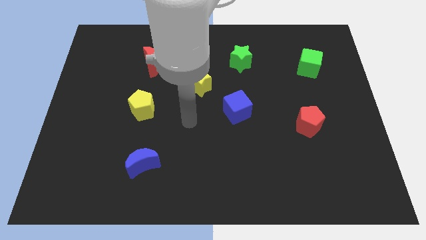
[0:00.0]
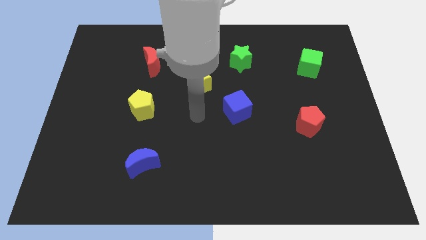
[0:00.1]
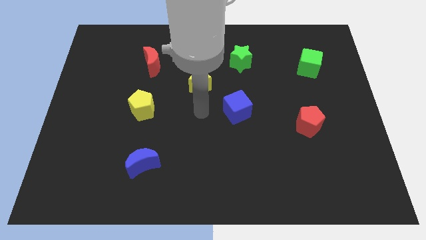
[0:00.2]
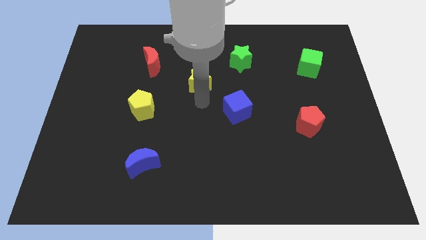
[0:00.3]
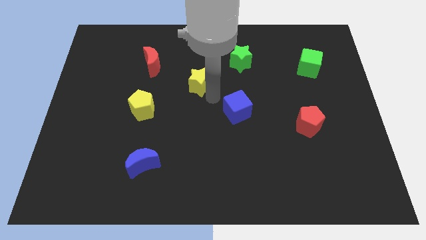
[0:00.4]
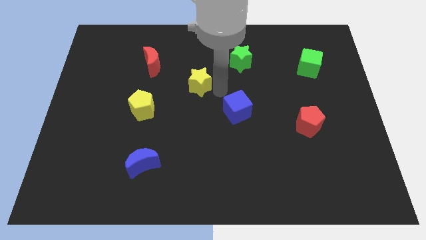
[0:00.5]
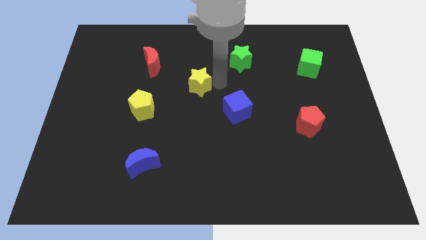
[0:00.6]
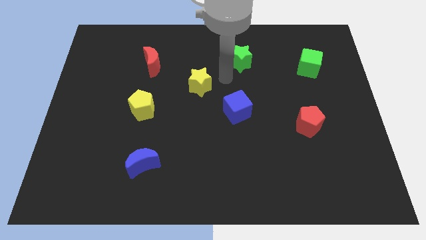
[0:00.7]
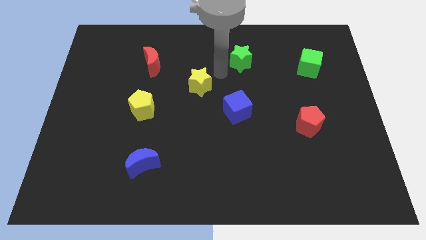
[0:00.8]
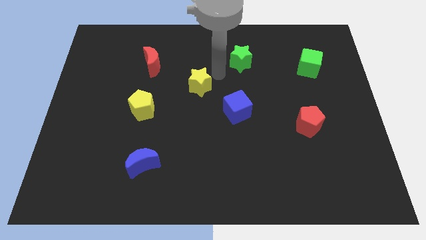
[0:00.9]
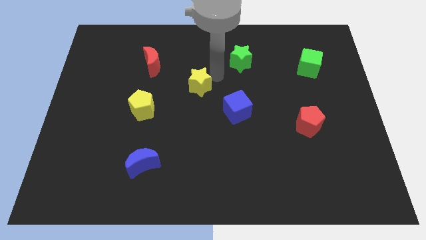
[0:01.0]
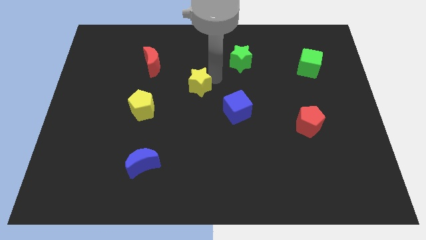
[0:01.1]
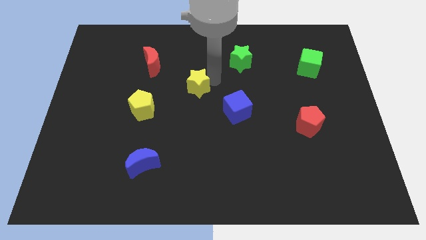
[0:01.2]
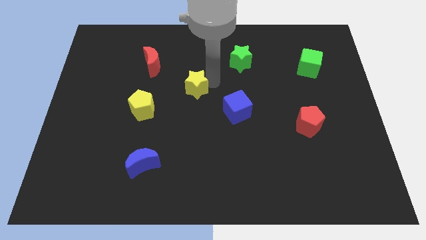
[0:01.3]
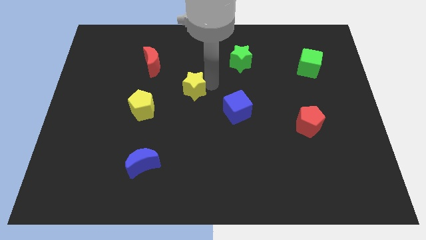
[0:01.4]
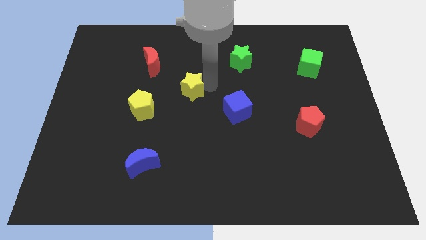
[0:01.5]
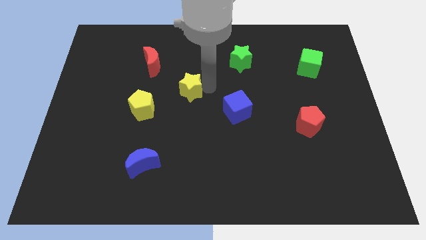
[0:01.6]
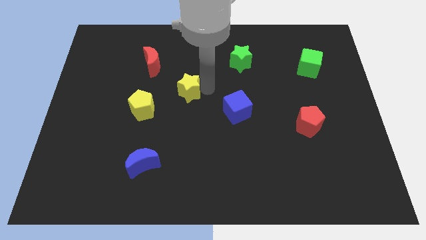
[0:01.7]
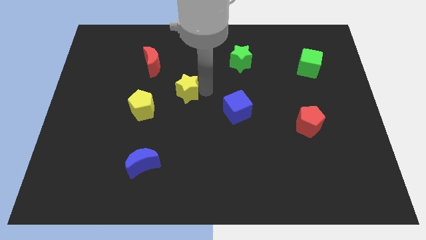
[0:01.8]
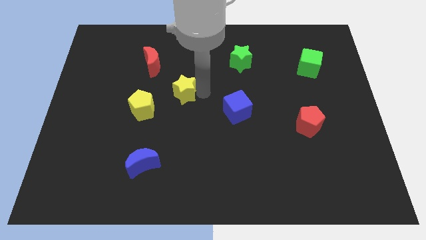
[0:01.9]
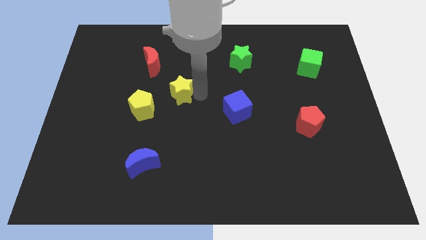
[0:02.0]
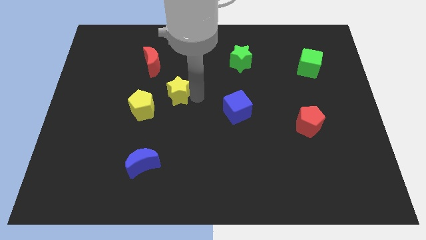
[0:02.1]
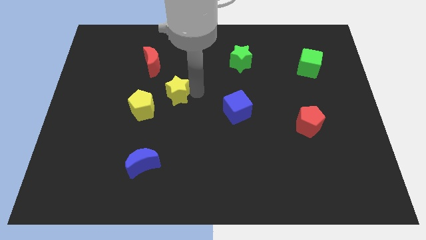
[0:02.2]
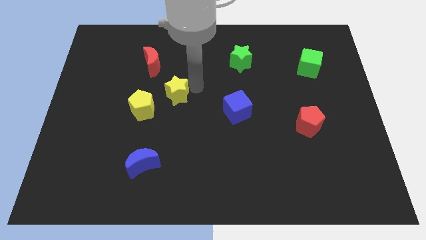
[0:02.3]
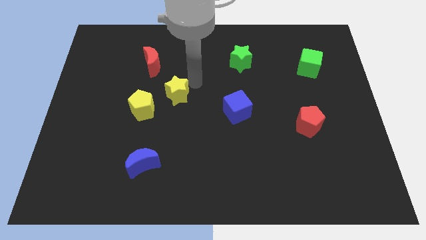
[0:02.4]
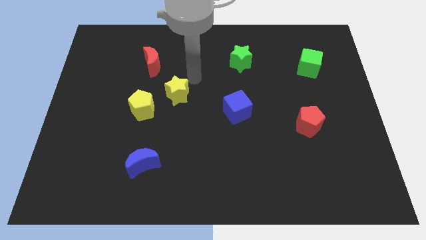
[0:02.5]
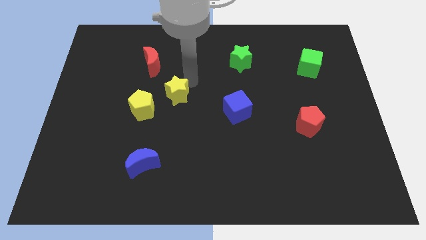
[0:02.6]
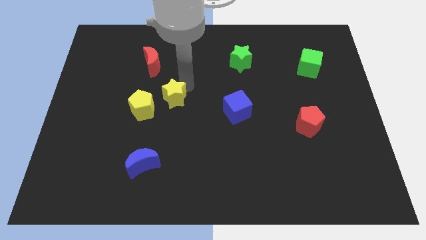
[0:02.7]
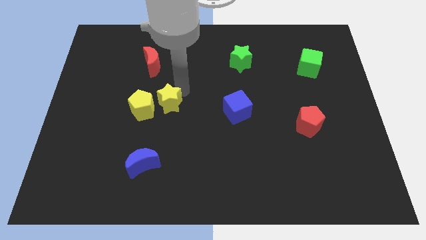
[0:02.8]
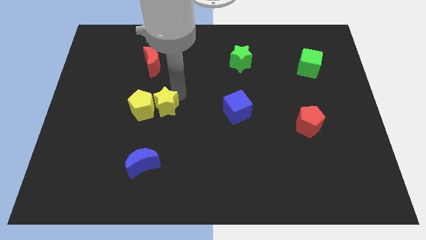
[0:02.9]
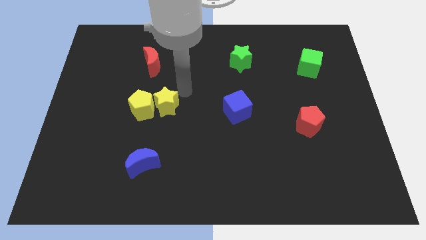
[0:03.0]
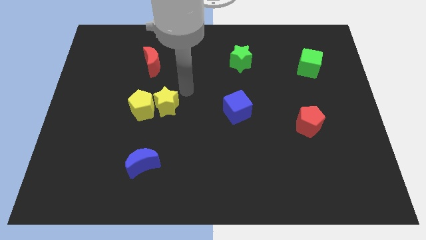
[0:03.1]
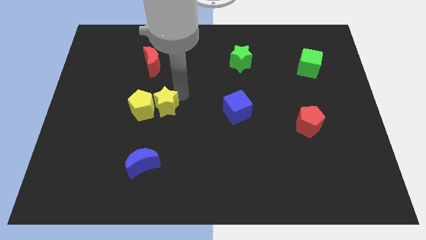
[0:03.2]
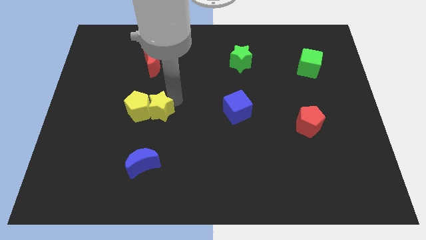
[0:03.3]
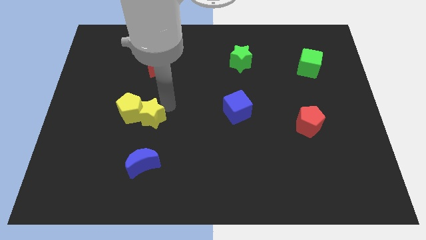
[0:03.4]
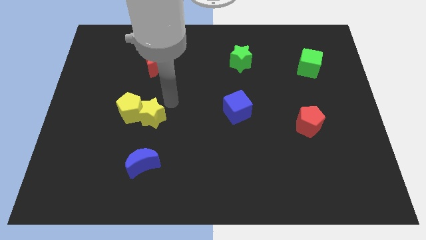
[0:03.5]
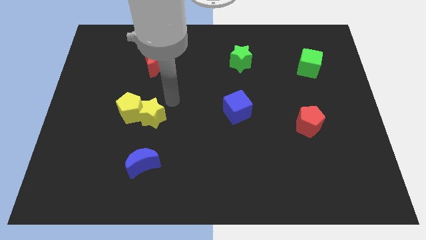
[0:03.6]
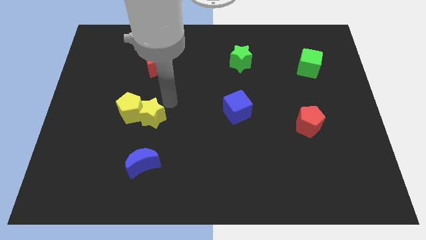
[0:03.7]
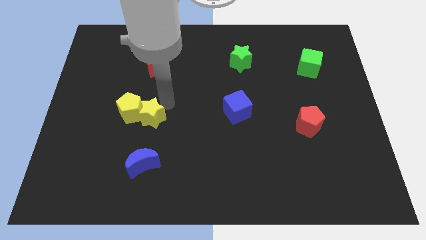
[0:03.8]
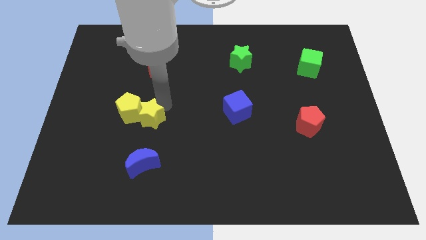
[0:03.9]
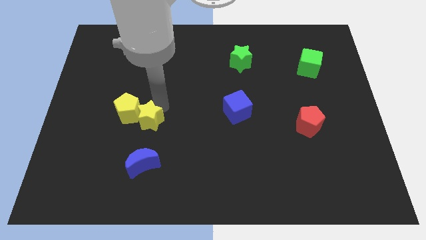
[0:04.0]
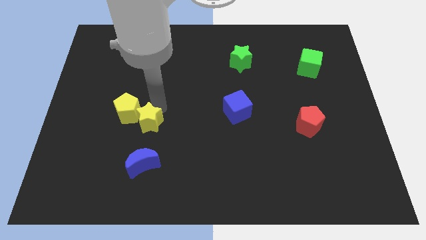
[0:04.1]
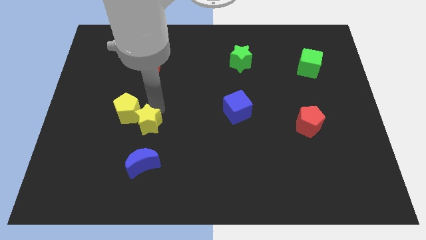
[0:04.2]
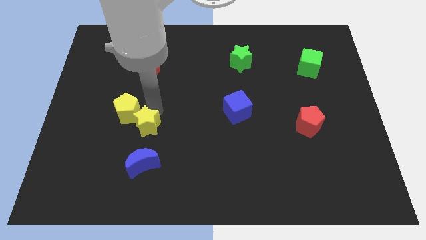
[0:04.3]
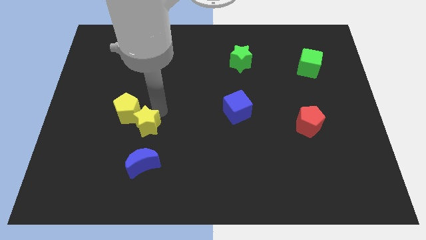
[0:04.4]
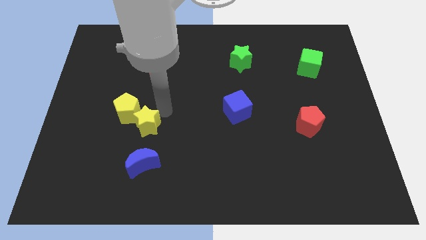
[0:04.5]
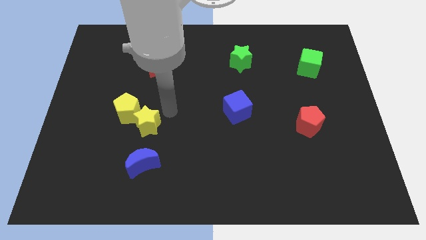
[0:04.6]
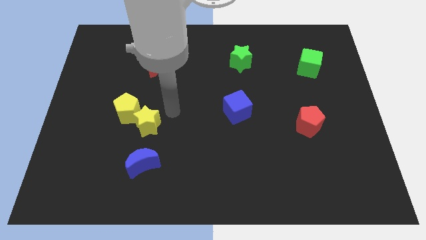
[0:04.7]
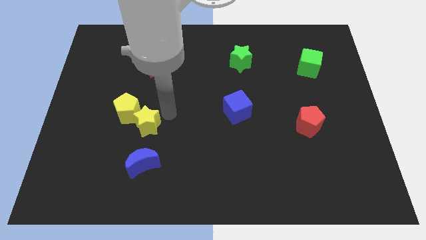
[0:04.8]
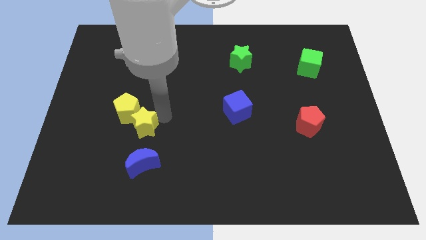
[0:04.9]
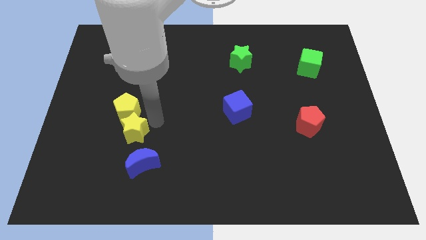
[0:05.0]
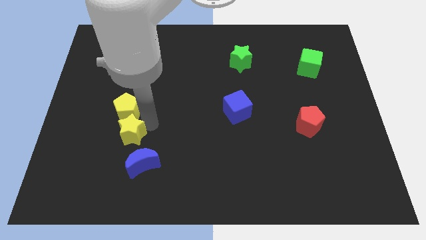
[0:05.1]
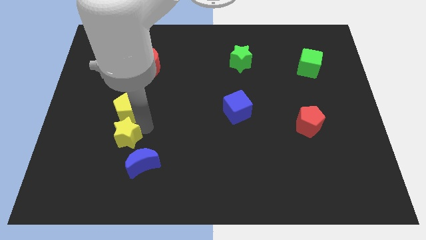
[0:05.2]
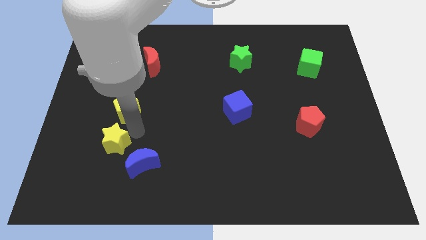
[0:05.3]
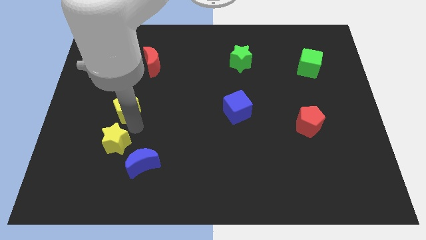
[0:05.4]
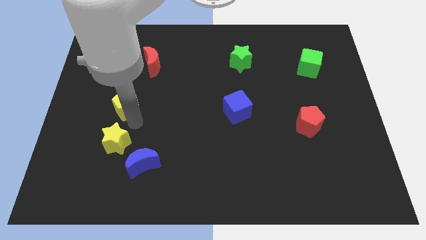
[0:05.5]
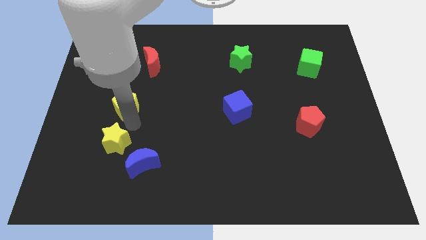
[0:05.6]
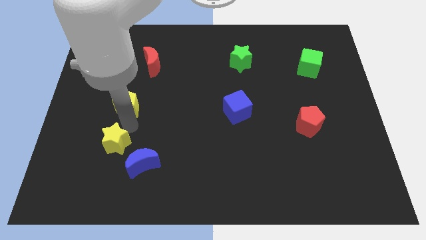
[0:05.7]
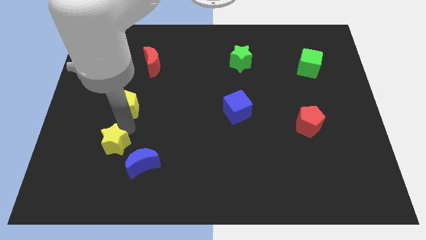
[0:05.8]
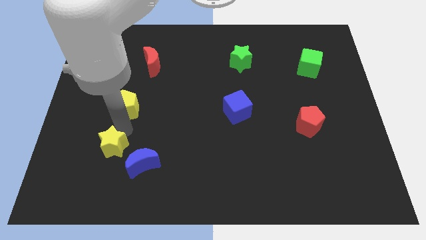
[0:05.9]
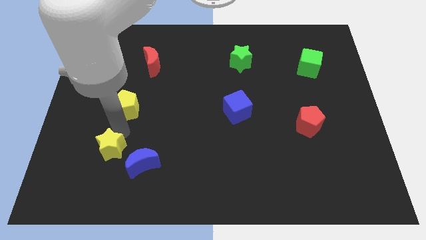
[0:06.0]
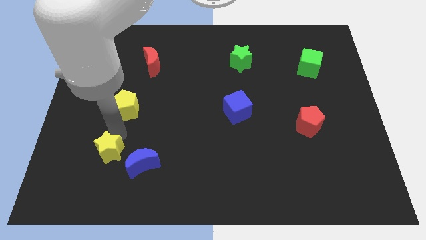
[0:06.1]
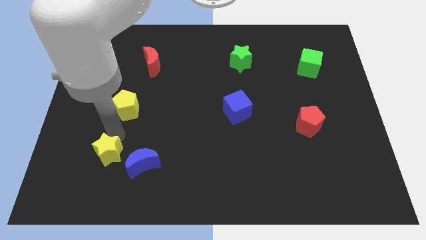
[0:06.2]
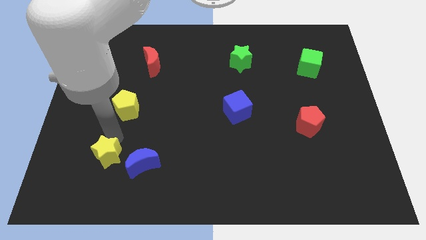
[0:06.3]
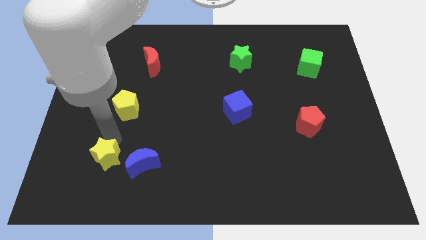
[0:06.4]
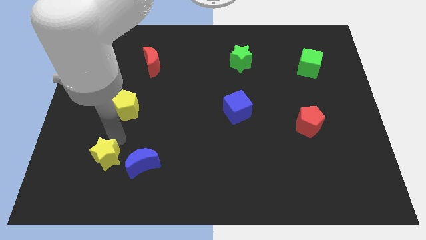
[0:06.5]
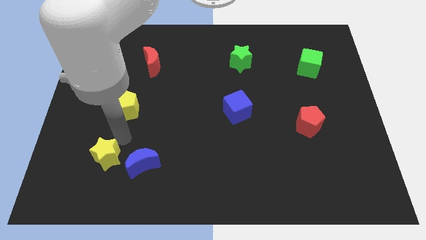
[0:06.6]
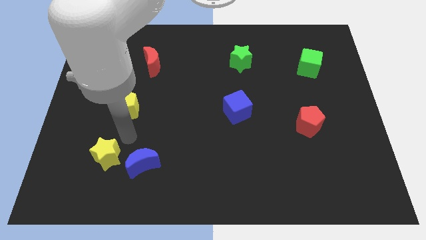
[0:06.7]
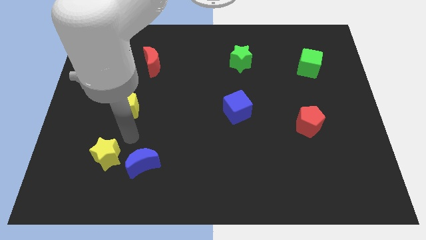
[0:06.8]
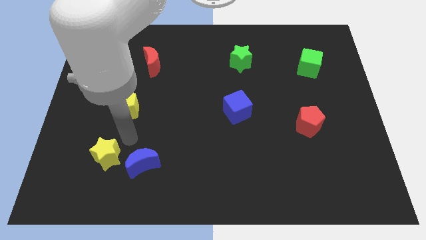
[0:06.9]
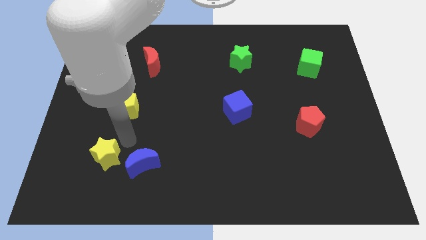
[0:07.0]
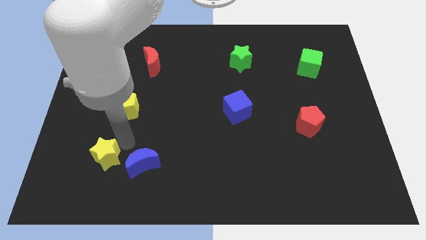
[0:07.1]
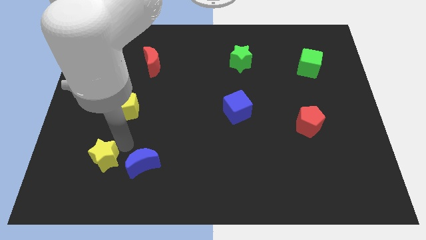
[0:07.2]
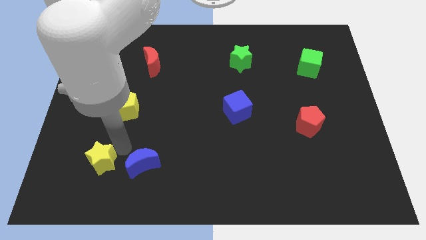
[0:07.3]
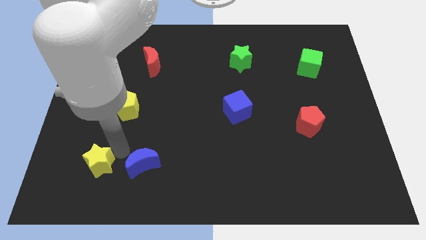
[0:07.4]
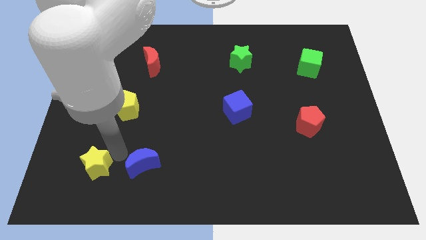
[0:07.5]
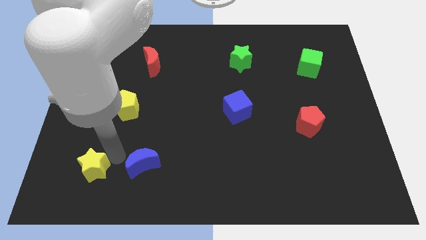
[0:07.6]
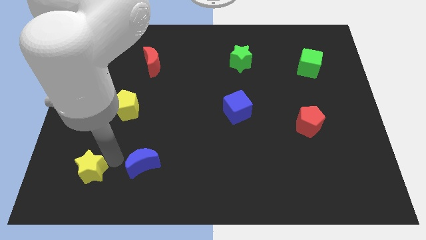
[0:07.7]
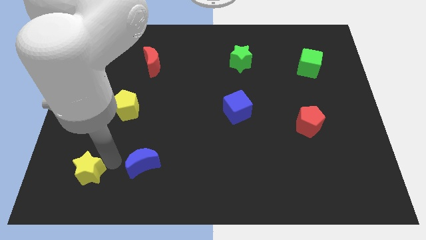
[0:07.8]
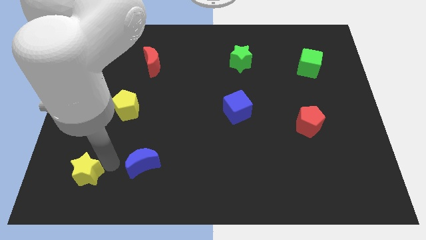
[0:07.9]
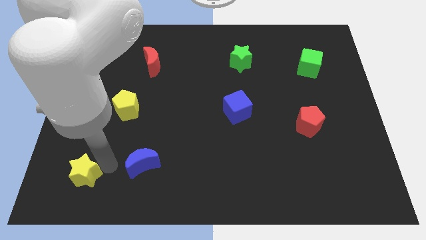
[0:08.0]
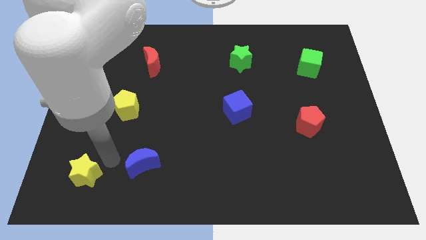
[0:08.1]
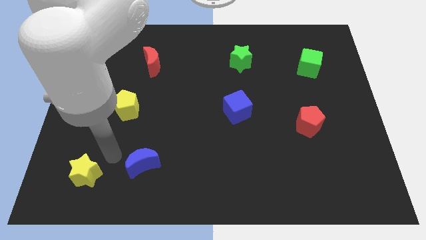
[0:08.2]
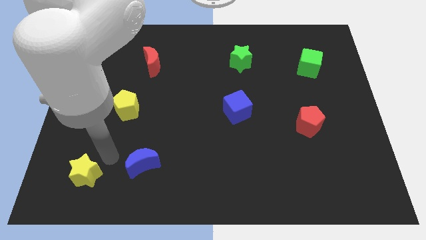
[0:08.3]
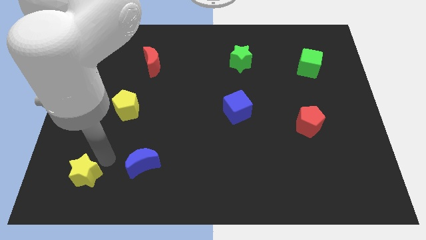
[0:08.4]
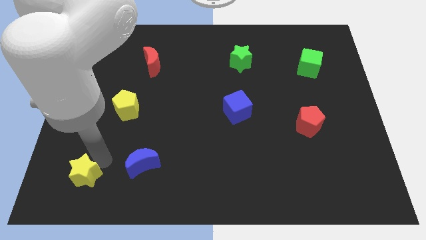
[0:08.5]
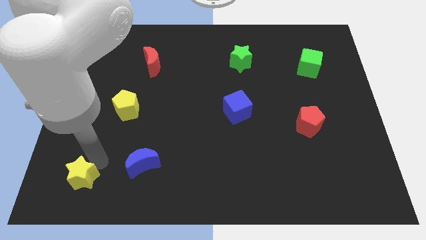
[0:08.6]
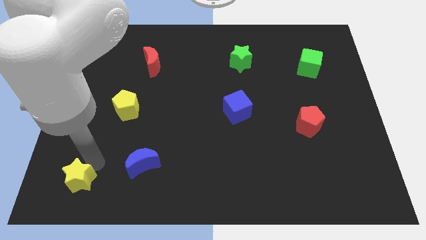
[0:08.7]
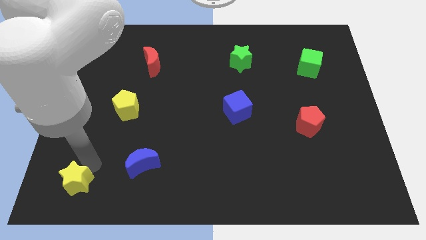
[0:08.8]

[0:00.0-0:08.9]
move the yellow star to the lower left corner
